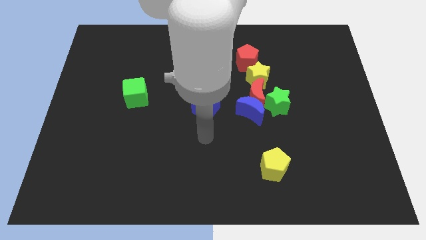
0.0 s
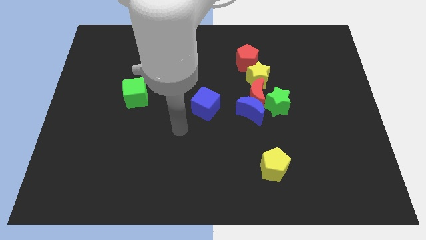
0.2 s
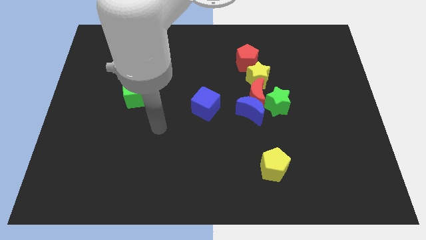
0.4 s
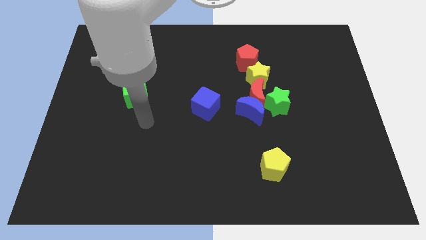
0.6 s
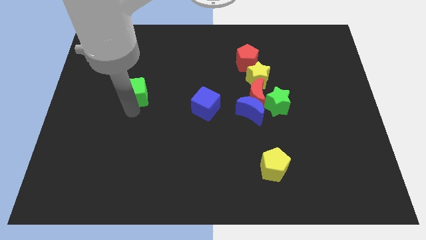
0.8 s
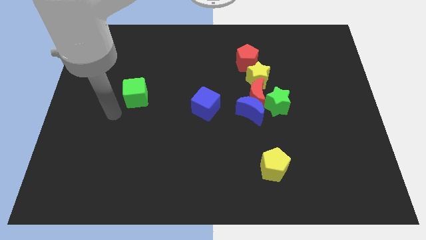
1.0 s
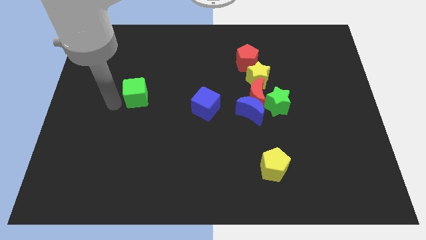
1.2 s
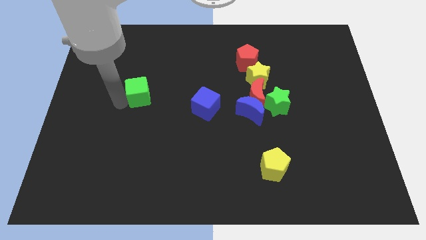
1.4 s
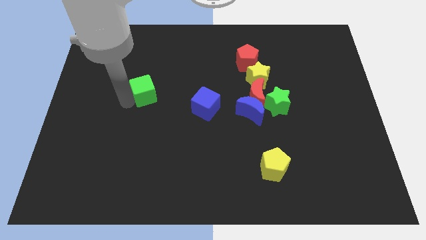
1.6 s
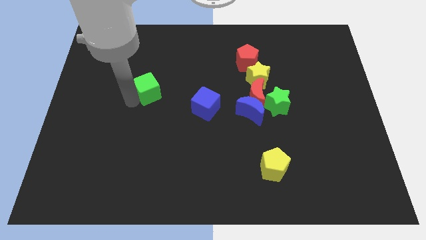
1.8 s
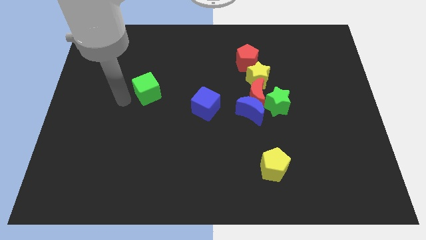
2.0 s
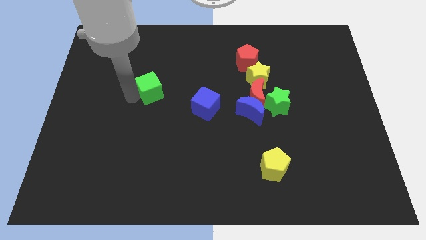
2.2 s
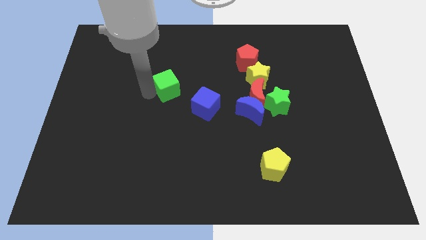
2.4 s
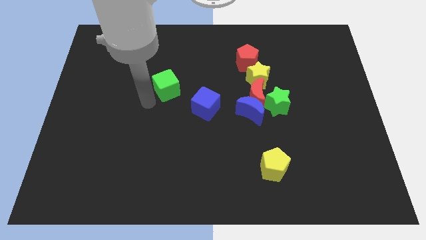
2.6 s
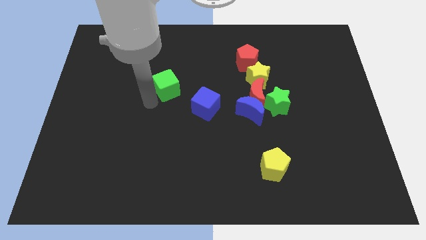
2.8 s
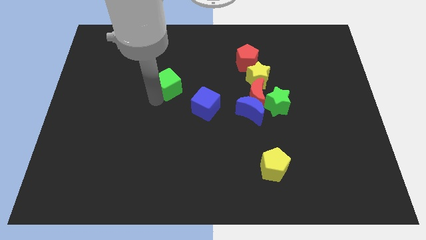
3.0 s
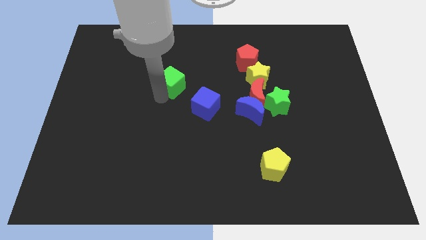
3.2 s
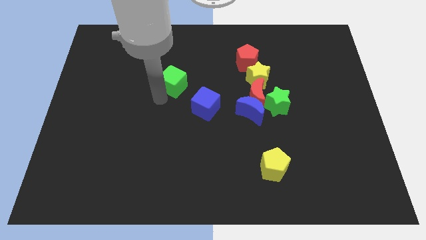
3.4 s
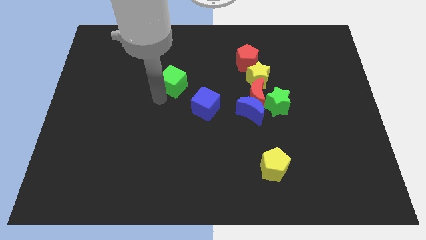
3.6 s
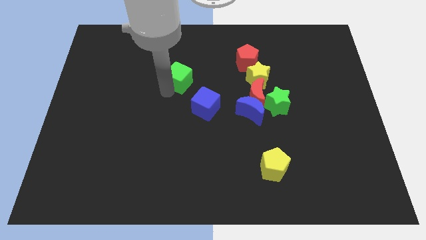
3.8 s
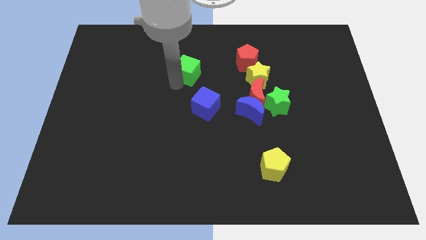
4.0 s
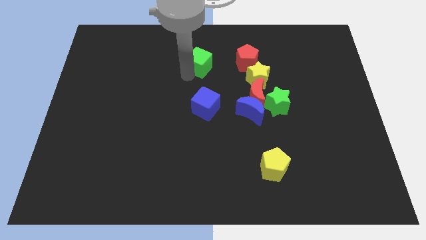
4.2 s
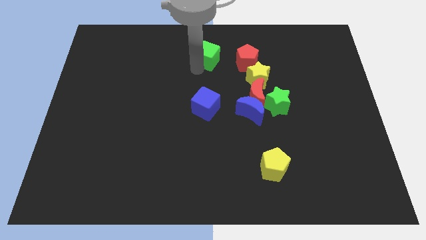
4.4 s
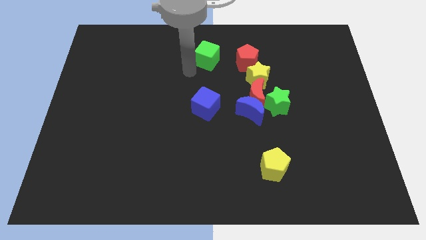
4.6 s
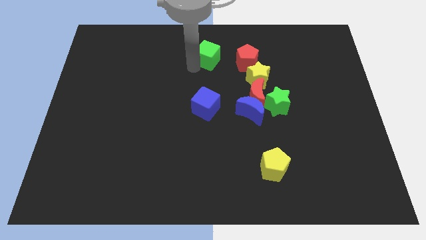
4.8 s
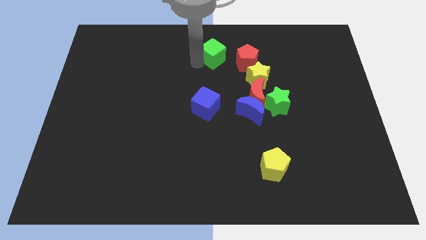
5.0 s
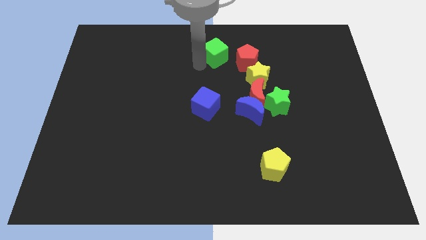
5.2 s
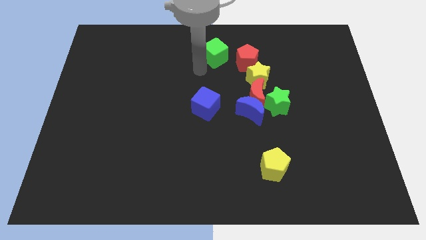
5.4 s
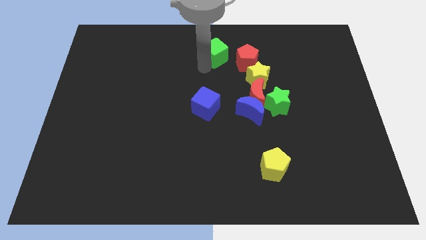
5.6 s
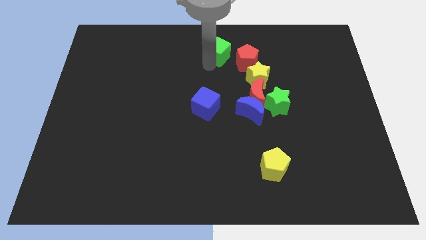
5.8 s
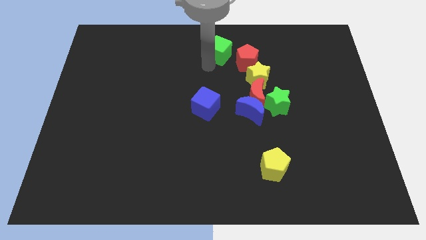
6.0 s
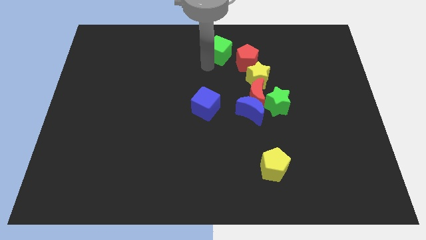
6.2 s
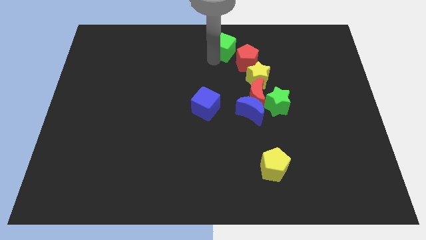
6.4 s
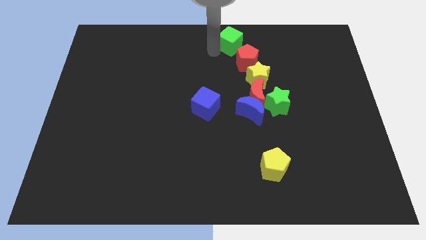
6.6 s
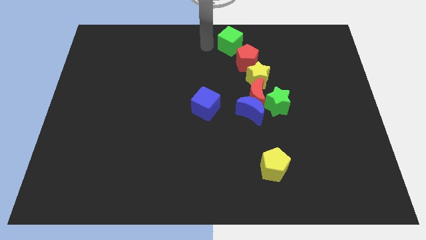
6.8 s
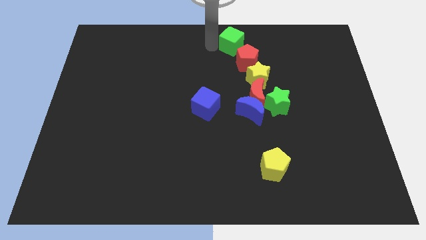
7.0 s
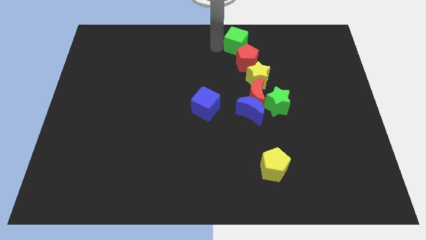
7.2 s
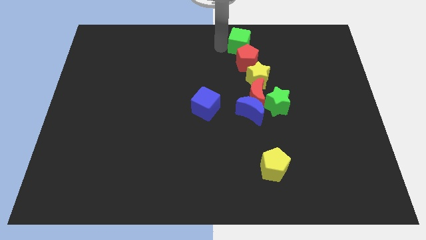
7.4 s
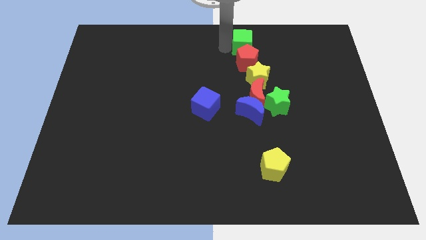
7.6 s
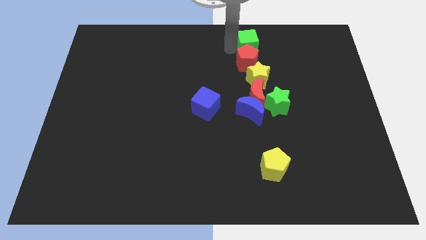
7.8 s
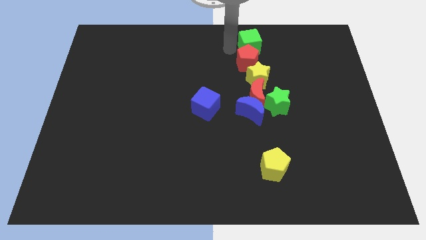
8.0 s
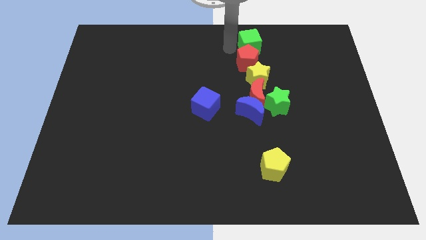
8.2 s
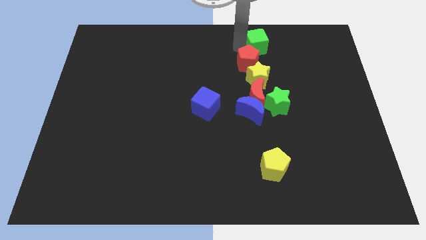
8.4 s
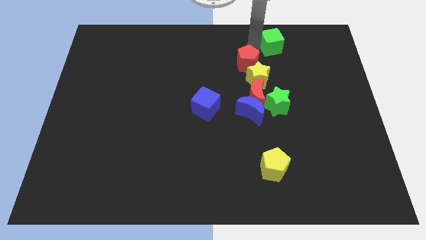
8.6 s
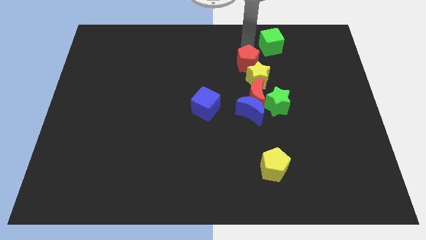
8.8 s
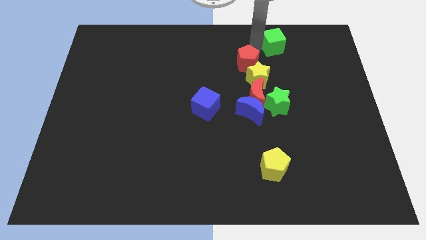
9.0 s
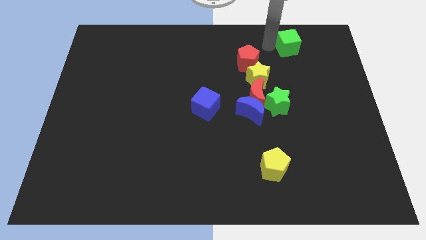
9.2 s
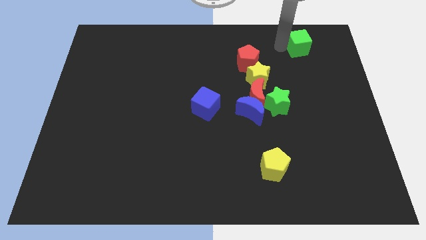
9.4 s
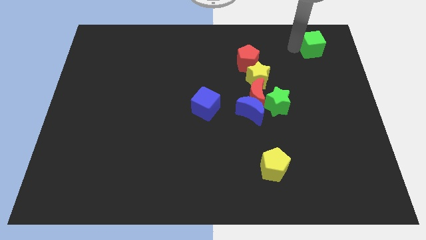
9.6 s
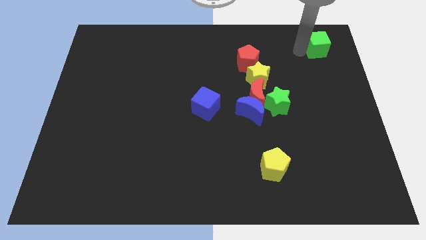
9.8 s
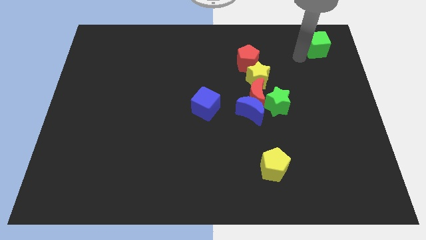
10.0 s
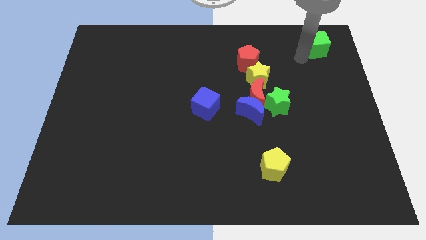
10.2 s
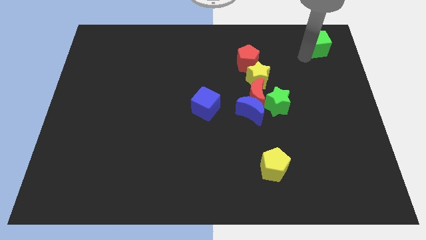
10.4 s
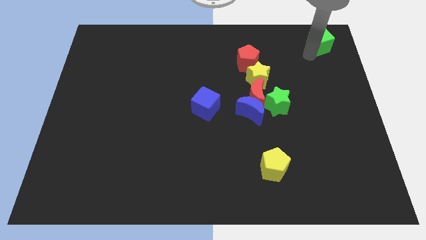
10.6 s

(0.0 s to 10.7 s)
put the green cube to the upper right corner
